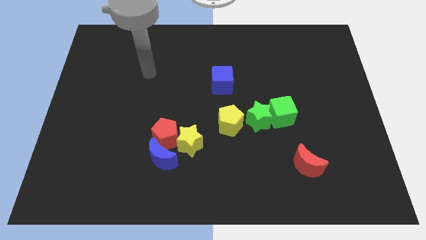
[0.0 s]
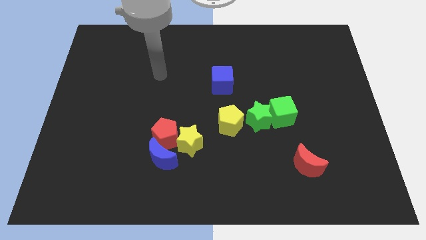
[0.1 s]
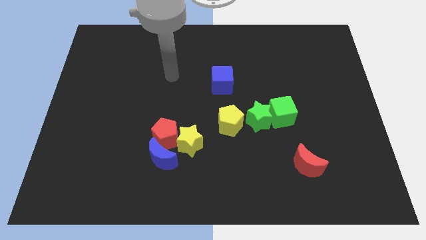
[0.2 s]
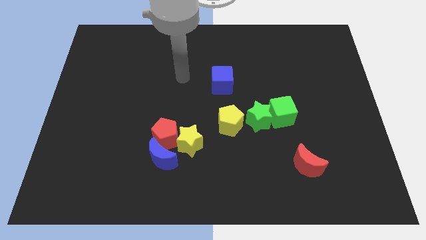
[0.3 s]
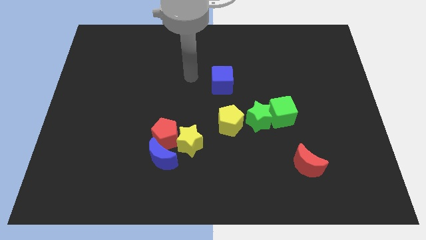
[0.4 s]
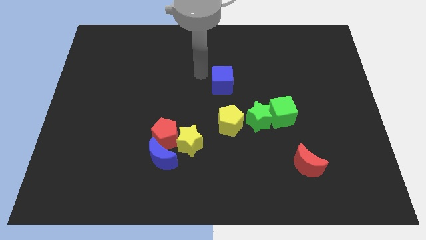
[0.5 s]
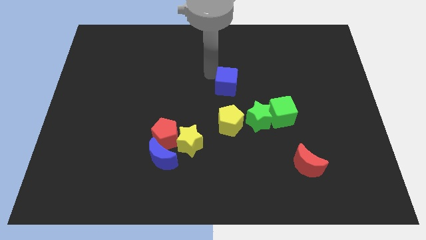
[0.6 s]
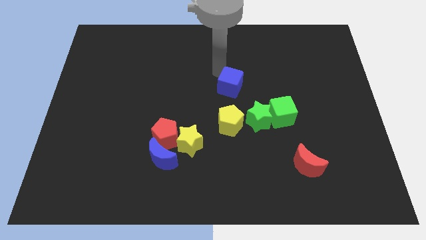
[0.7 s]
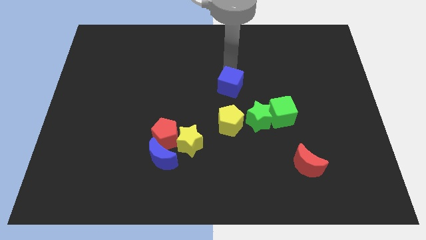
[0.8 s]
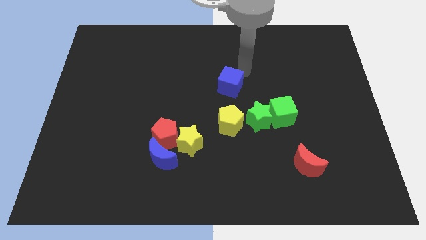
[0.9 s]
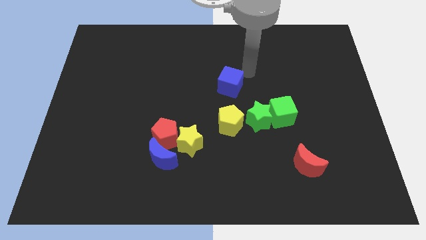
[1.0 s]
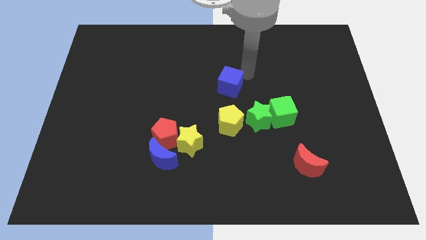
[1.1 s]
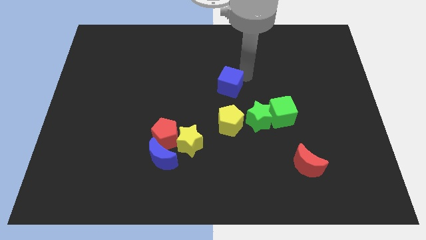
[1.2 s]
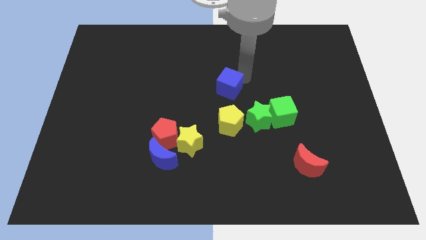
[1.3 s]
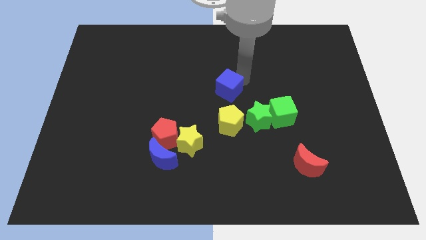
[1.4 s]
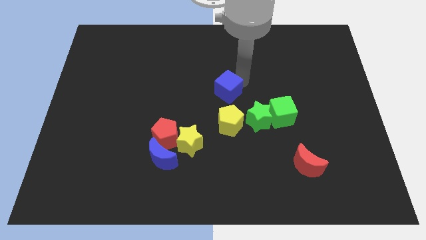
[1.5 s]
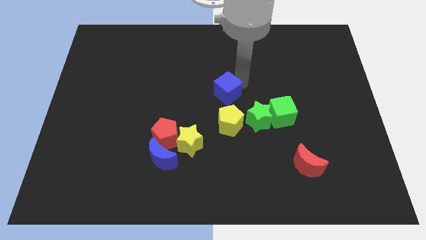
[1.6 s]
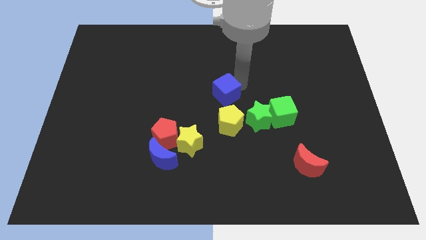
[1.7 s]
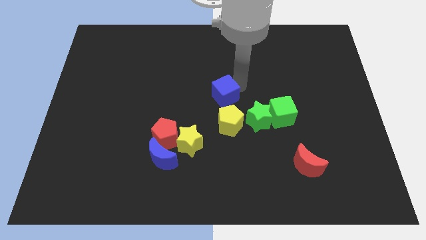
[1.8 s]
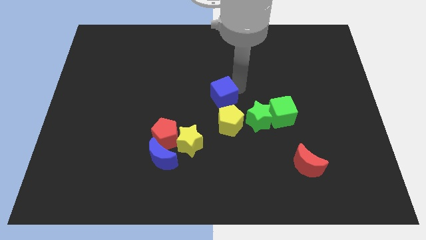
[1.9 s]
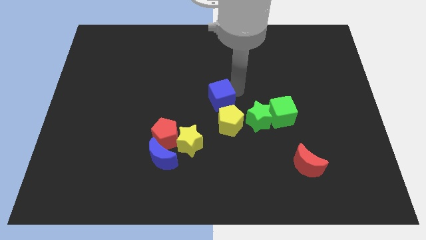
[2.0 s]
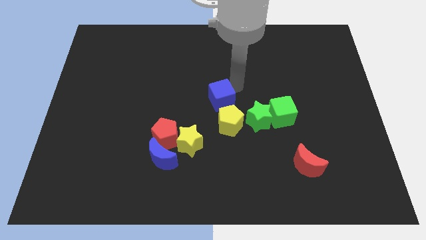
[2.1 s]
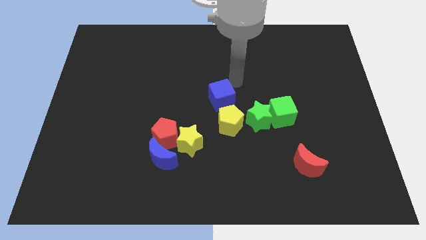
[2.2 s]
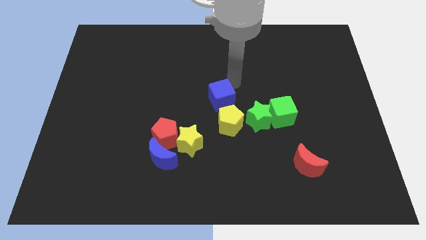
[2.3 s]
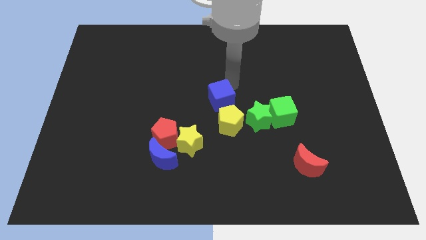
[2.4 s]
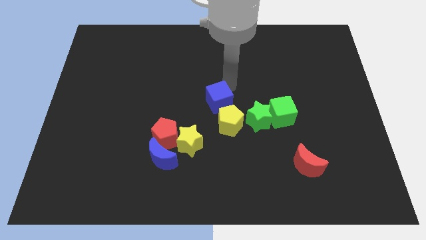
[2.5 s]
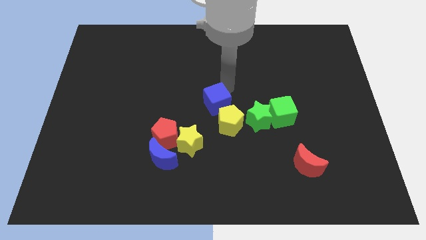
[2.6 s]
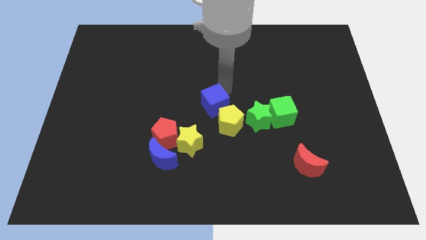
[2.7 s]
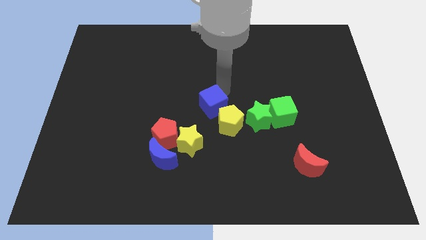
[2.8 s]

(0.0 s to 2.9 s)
slide the blue cube downwards a little

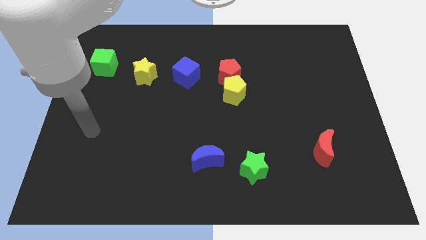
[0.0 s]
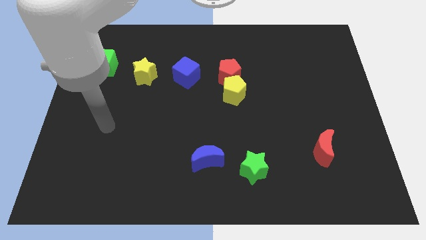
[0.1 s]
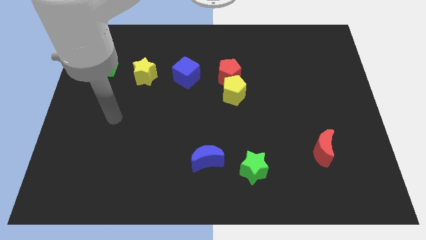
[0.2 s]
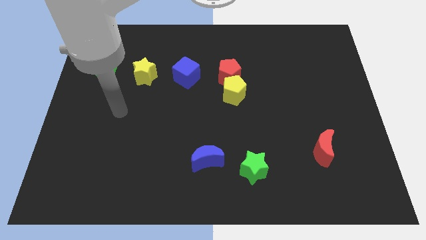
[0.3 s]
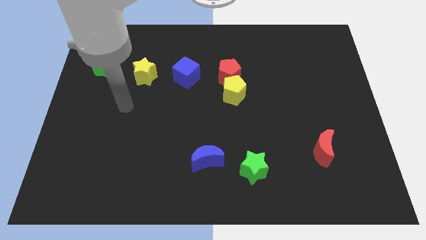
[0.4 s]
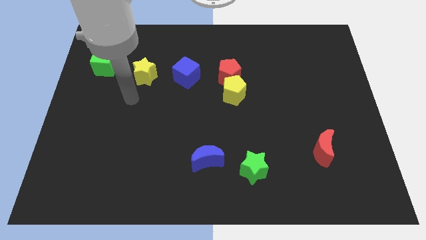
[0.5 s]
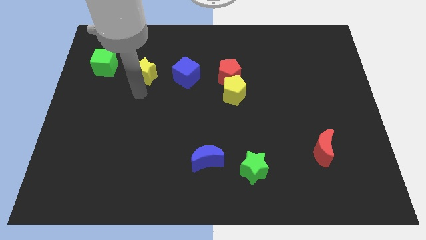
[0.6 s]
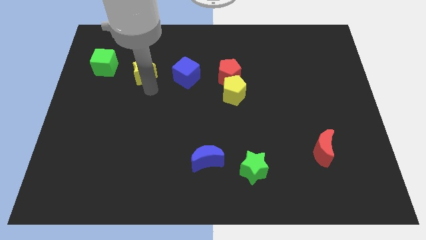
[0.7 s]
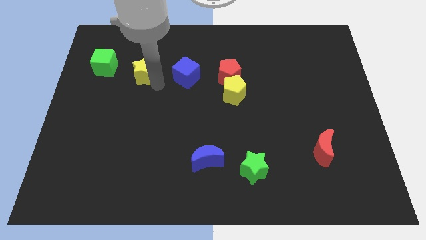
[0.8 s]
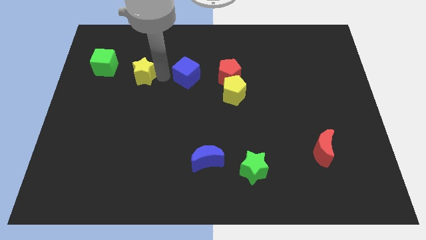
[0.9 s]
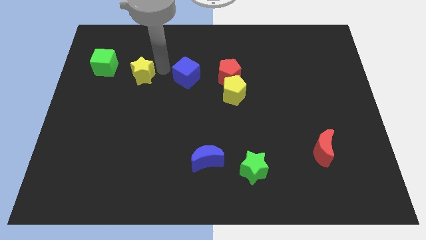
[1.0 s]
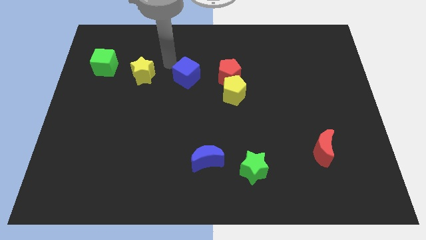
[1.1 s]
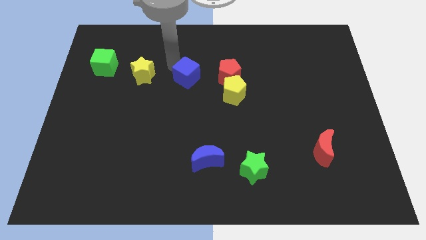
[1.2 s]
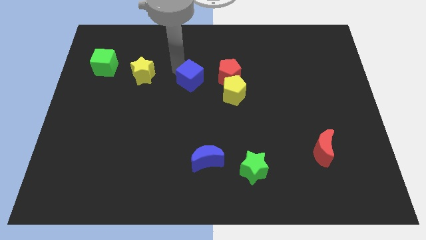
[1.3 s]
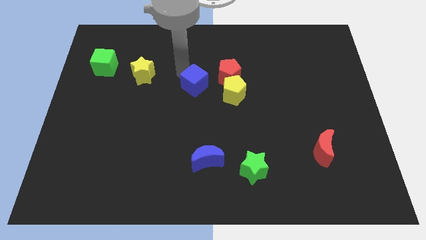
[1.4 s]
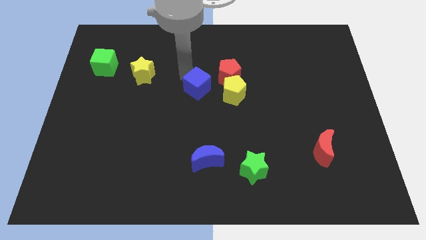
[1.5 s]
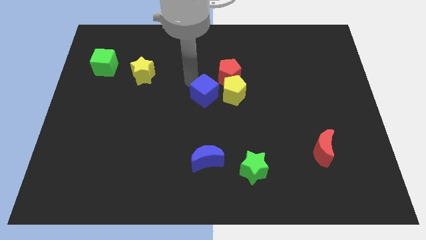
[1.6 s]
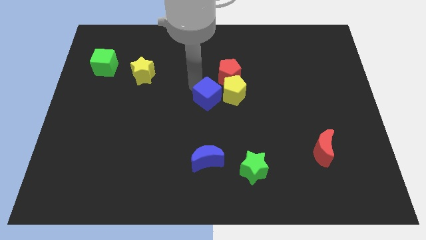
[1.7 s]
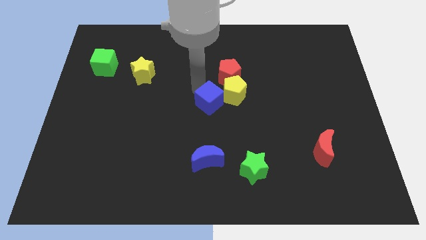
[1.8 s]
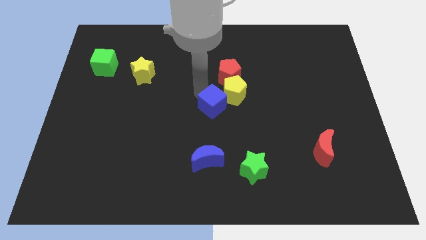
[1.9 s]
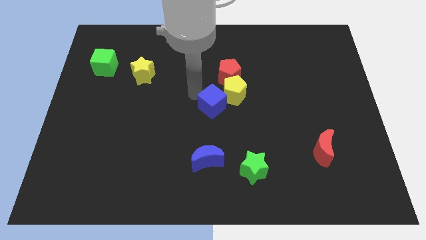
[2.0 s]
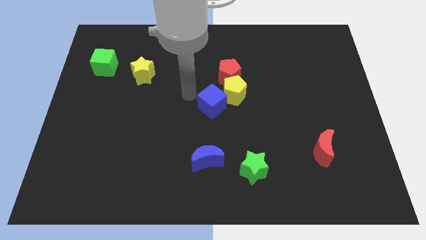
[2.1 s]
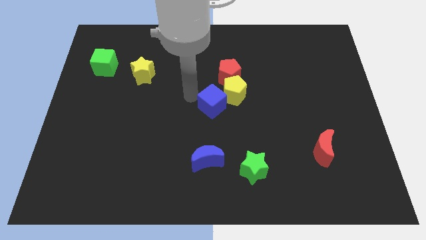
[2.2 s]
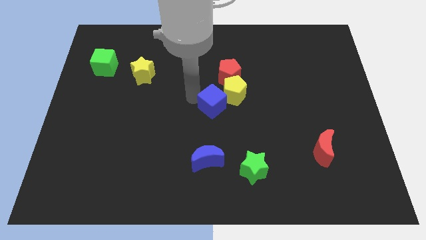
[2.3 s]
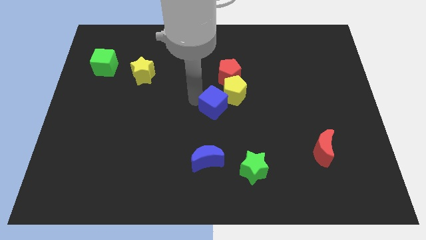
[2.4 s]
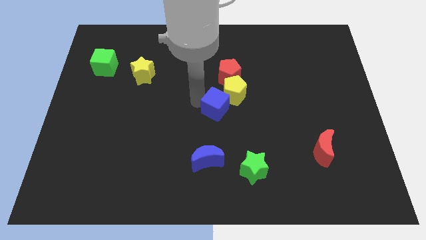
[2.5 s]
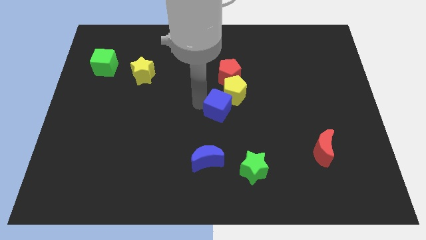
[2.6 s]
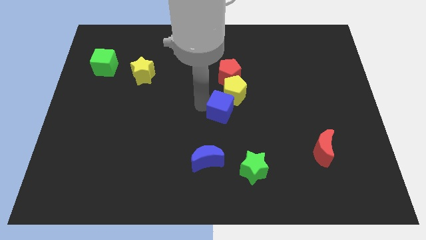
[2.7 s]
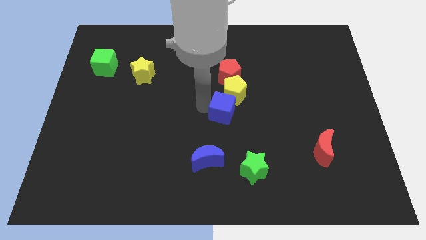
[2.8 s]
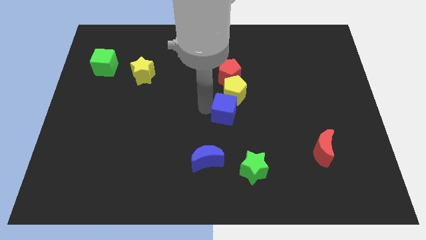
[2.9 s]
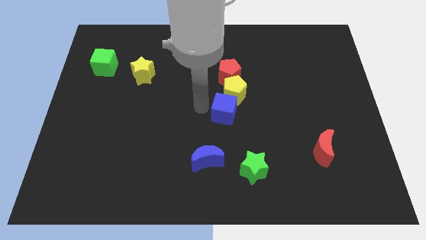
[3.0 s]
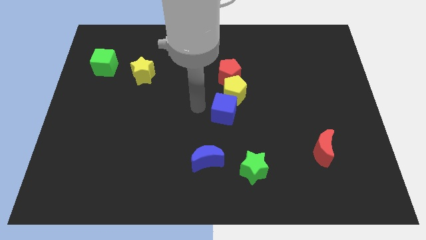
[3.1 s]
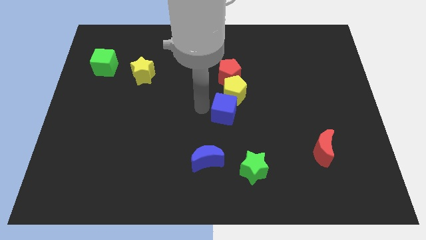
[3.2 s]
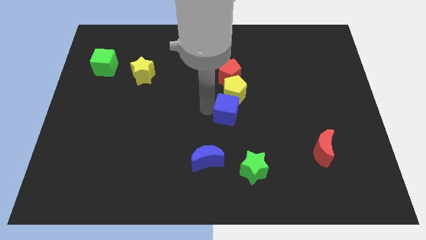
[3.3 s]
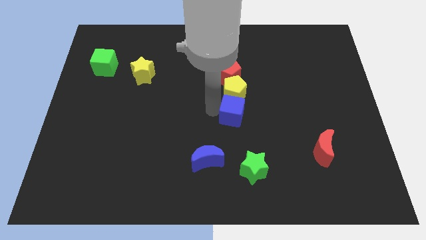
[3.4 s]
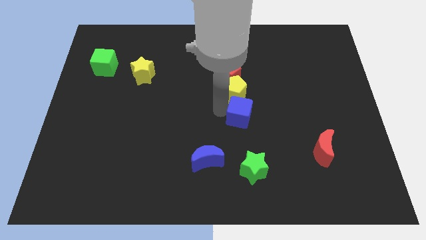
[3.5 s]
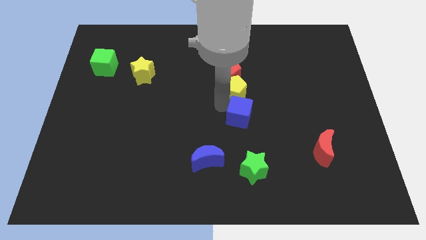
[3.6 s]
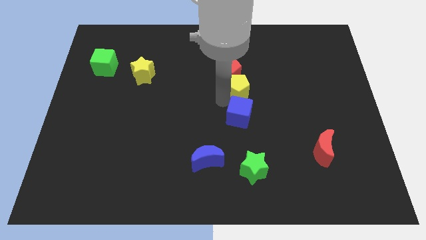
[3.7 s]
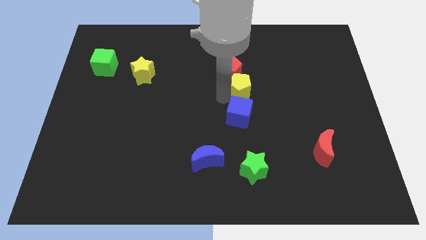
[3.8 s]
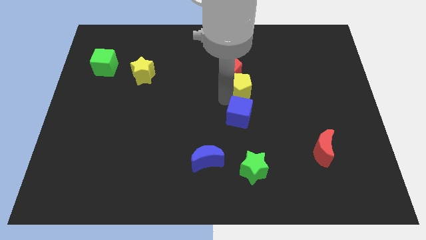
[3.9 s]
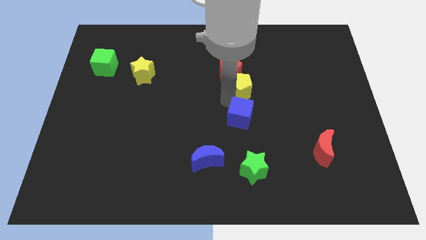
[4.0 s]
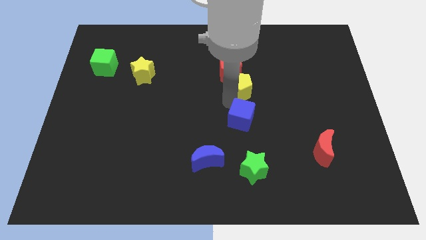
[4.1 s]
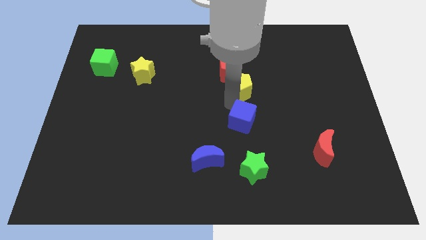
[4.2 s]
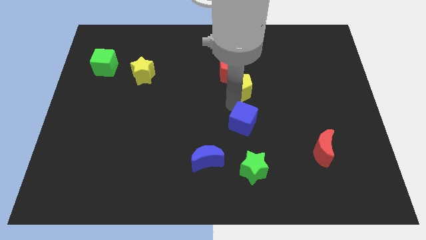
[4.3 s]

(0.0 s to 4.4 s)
slide the blue cube diagonally down and right

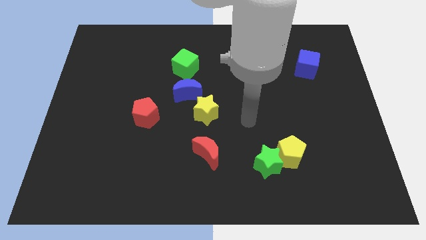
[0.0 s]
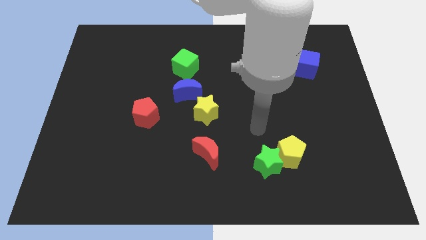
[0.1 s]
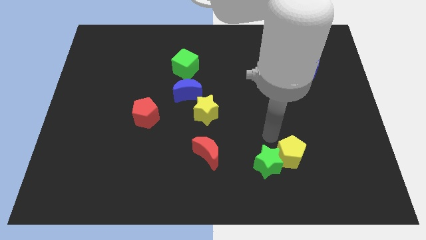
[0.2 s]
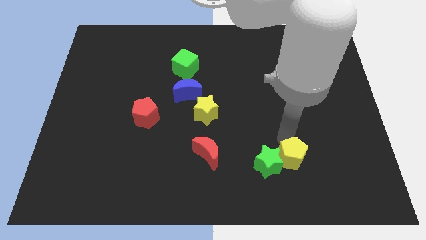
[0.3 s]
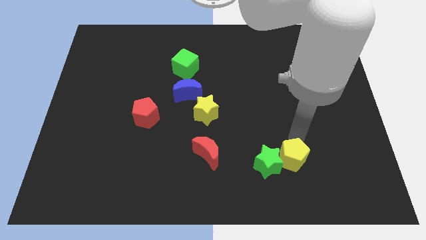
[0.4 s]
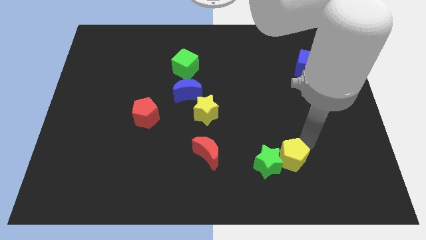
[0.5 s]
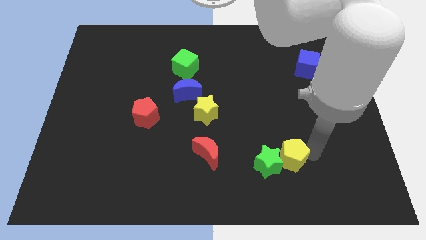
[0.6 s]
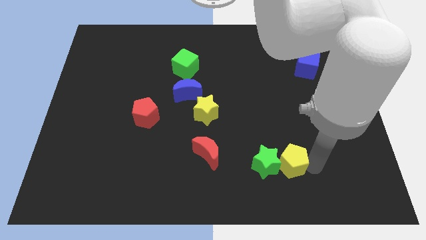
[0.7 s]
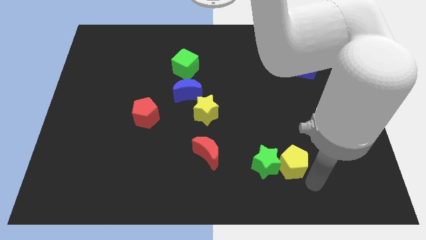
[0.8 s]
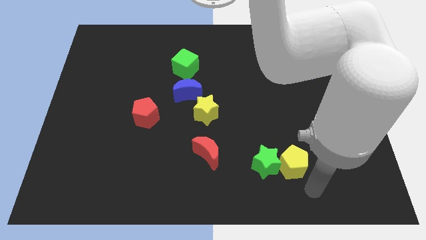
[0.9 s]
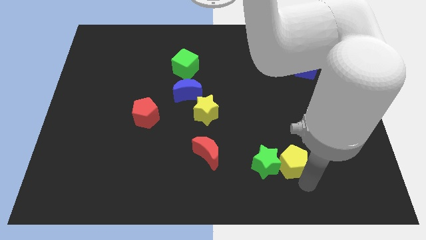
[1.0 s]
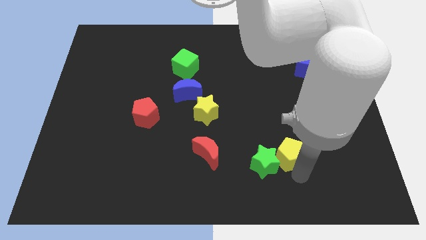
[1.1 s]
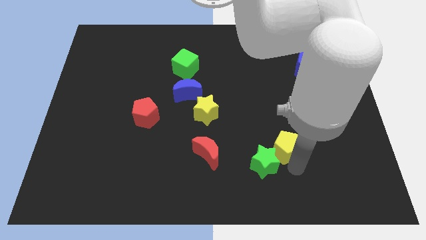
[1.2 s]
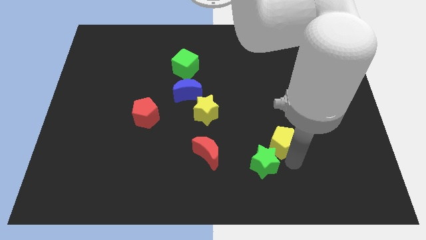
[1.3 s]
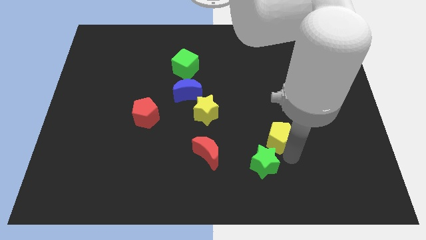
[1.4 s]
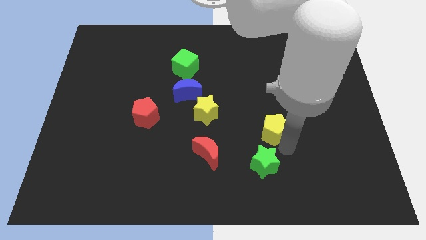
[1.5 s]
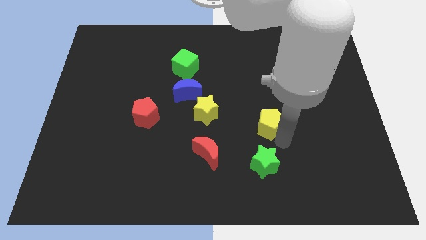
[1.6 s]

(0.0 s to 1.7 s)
slide the yellow pentagon a little upwards and then left
